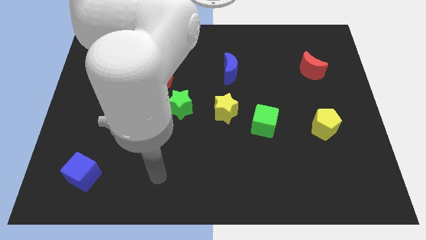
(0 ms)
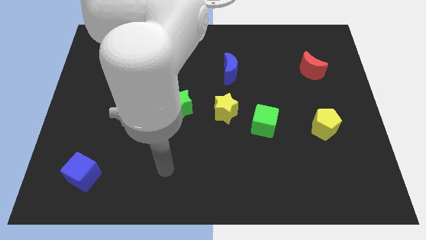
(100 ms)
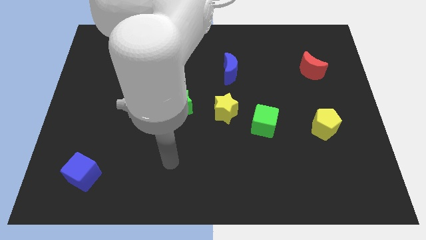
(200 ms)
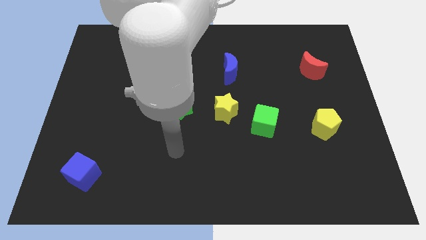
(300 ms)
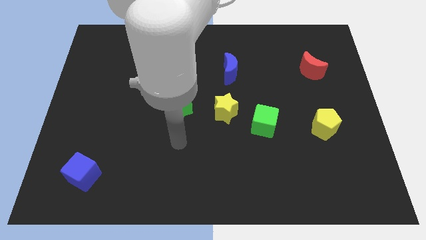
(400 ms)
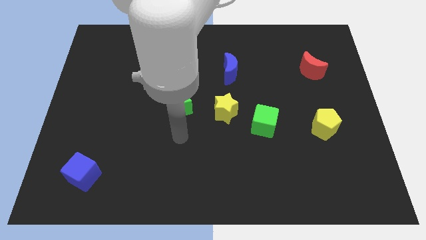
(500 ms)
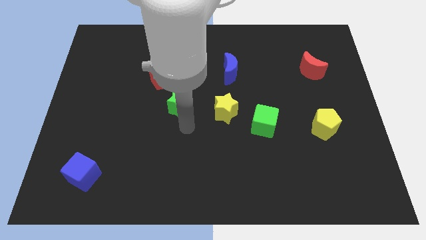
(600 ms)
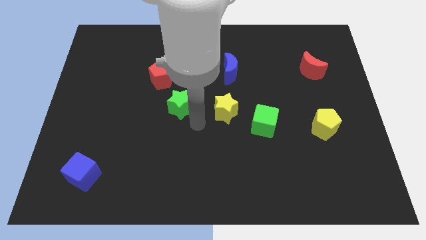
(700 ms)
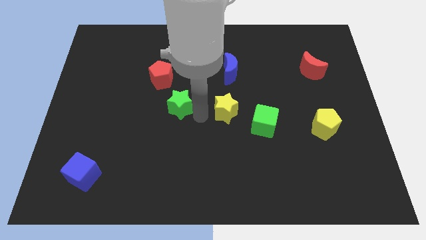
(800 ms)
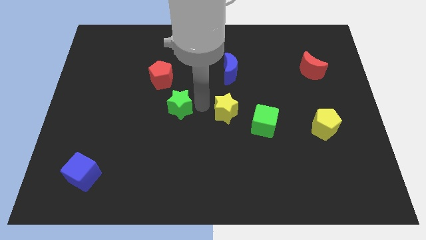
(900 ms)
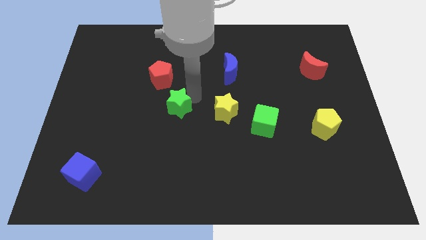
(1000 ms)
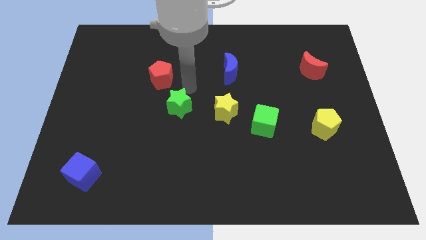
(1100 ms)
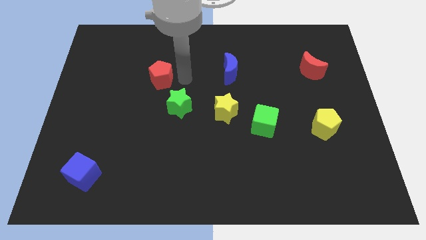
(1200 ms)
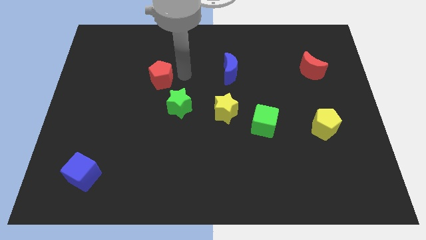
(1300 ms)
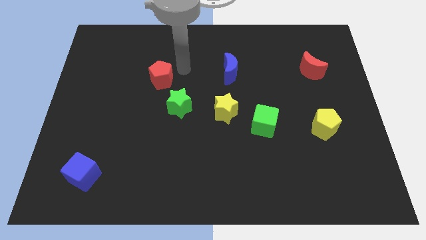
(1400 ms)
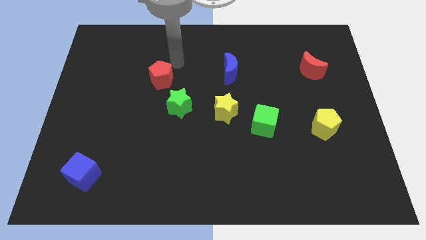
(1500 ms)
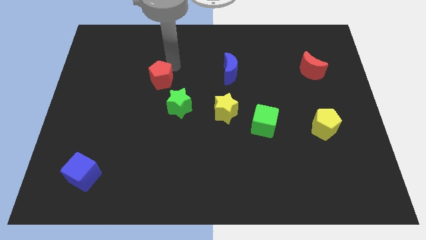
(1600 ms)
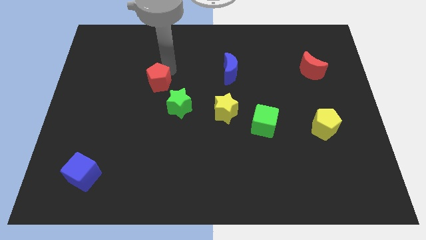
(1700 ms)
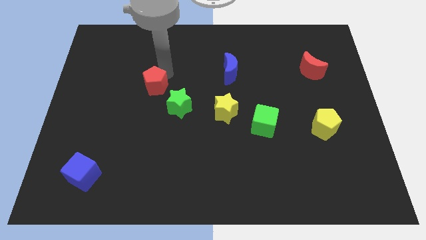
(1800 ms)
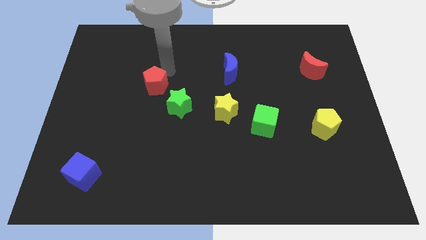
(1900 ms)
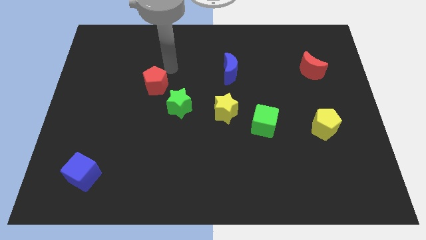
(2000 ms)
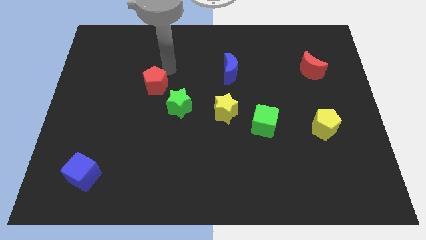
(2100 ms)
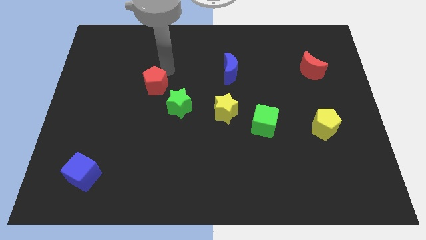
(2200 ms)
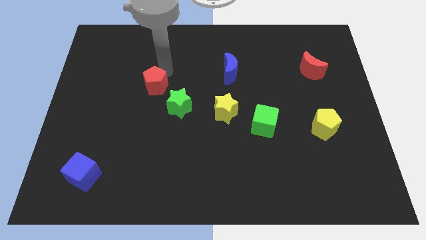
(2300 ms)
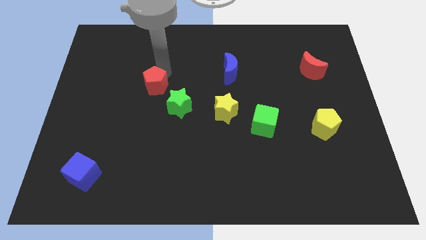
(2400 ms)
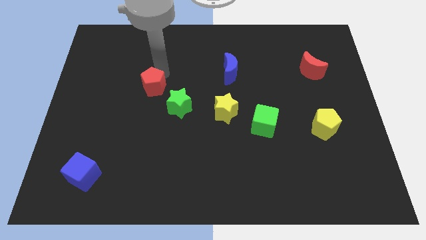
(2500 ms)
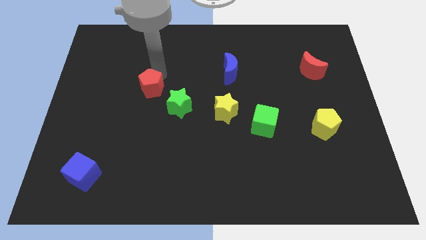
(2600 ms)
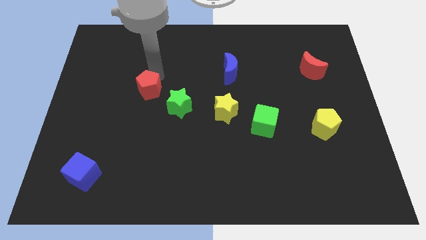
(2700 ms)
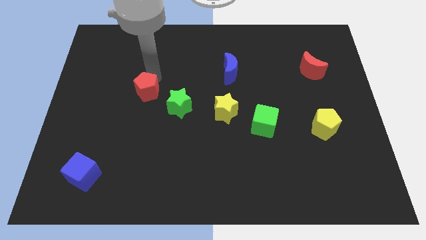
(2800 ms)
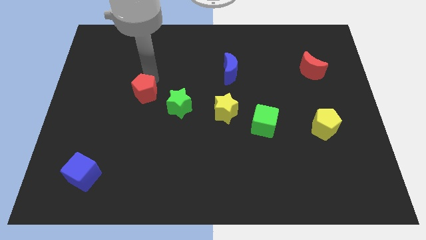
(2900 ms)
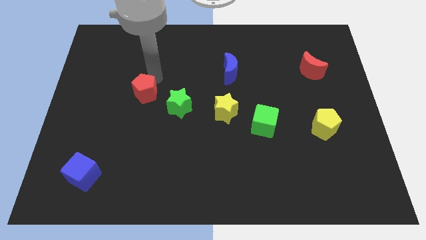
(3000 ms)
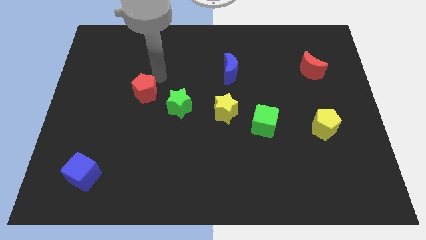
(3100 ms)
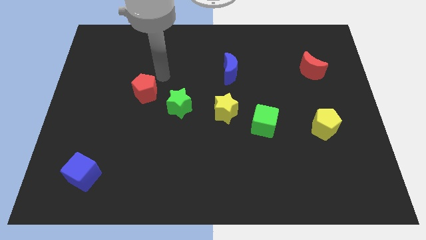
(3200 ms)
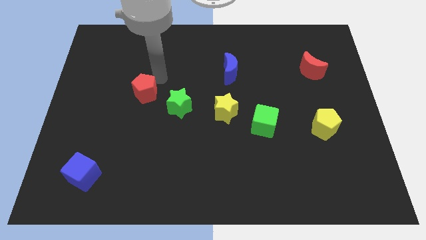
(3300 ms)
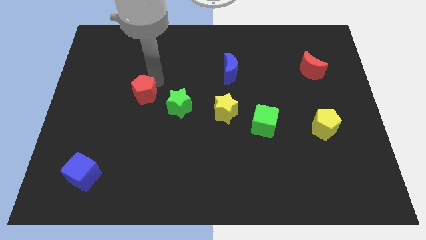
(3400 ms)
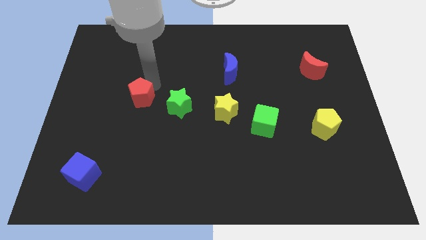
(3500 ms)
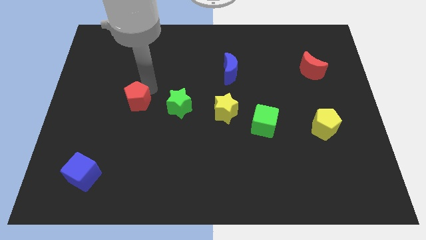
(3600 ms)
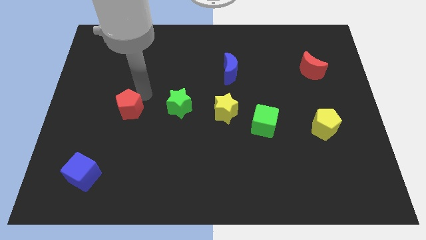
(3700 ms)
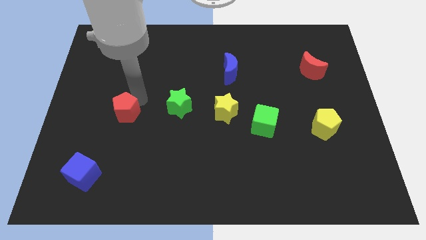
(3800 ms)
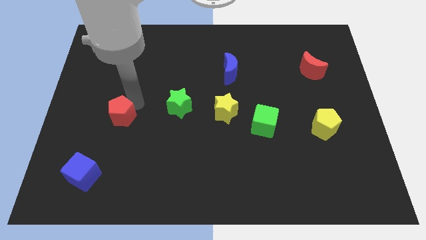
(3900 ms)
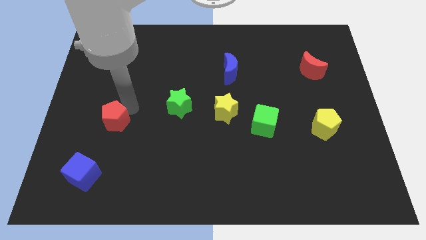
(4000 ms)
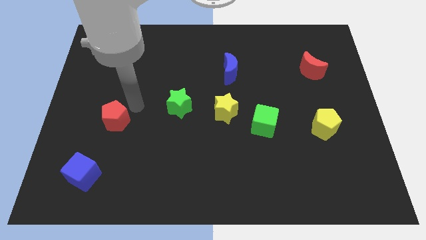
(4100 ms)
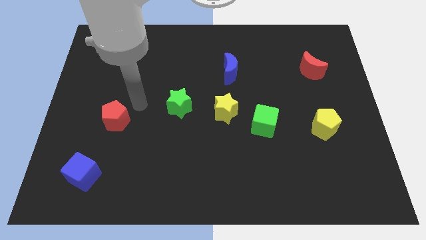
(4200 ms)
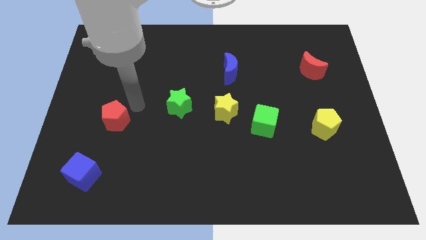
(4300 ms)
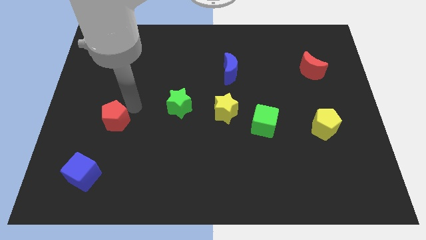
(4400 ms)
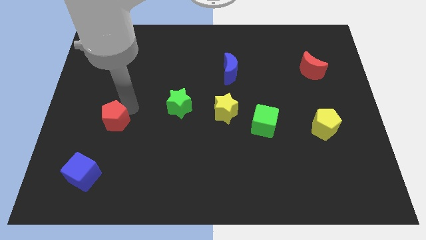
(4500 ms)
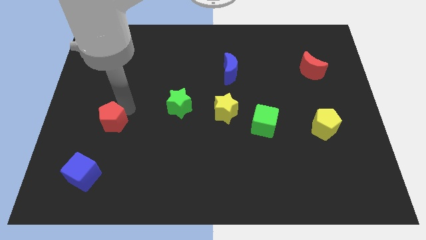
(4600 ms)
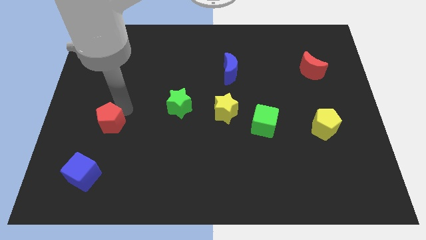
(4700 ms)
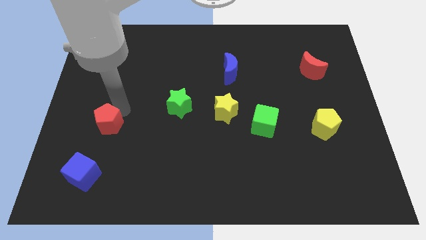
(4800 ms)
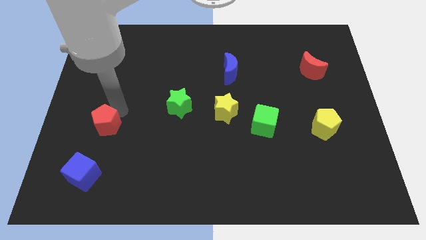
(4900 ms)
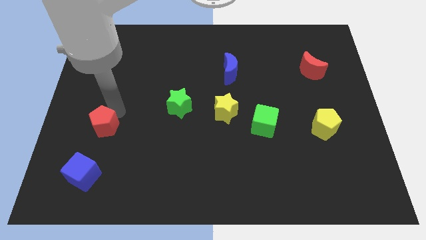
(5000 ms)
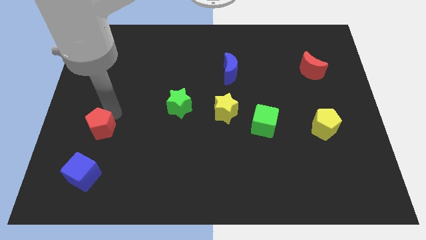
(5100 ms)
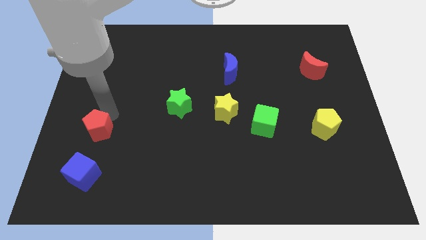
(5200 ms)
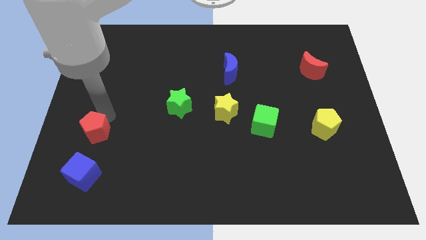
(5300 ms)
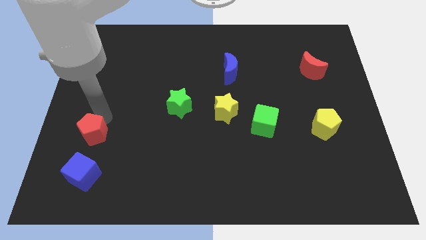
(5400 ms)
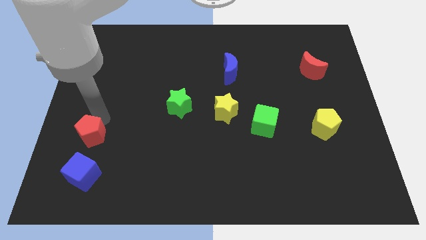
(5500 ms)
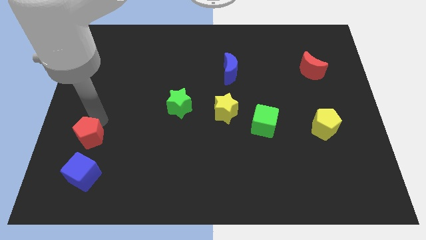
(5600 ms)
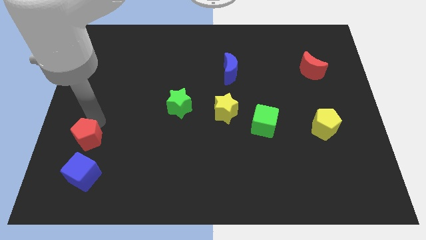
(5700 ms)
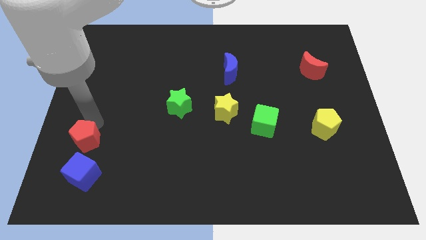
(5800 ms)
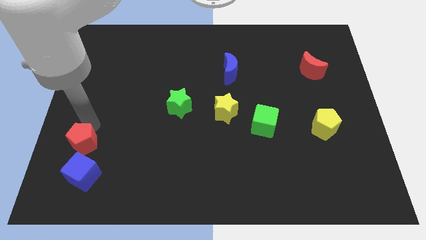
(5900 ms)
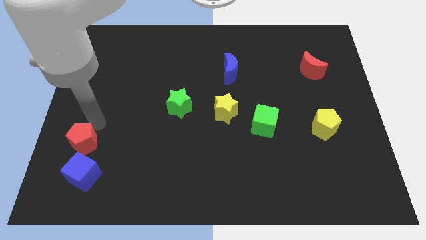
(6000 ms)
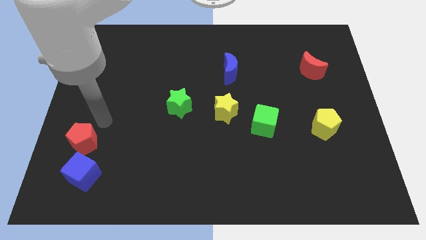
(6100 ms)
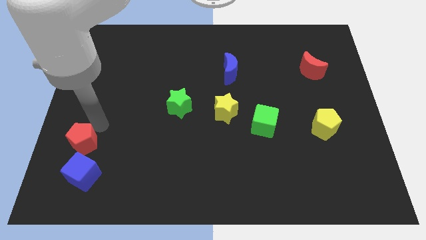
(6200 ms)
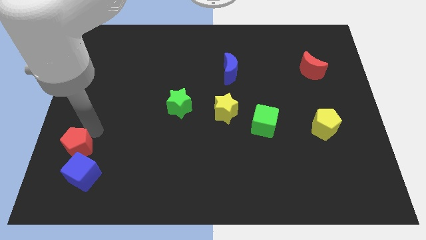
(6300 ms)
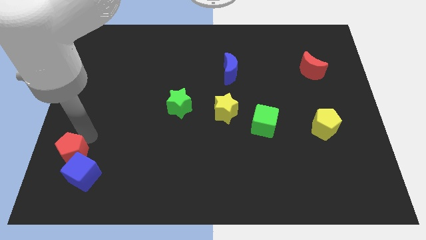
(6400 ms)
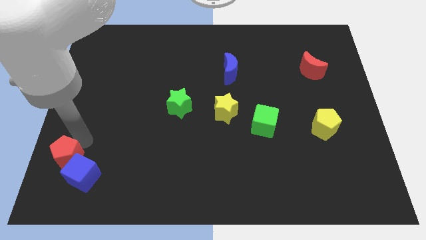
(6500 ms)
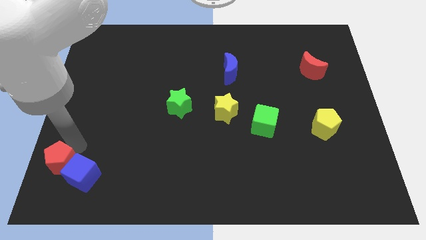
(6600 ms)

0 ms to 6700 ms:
put the red pentagon to the bottom left of the board
